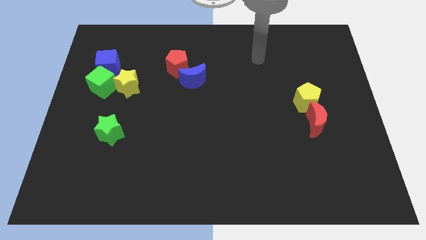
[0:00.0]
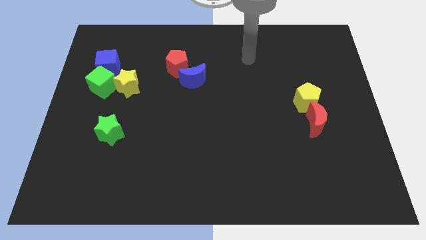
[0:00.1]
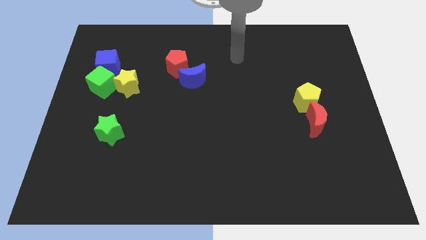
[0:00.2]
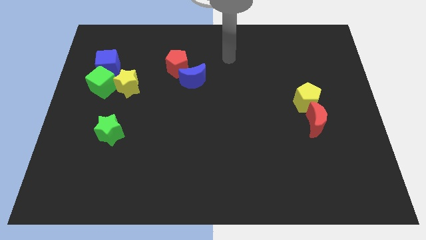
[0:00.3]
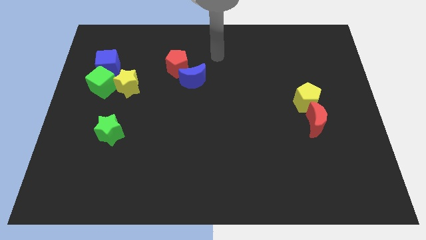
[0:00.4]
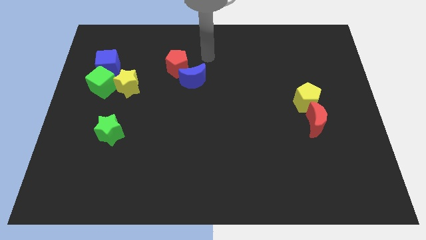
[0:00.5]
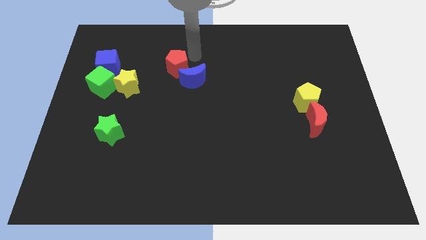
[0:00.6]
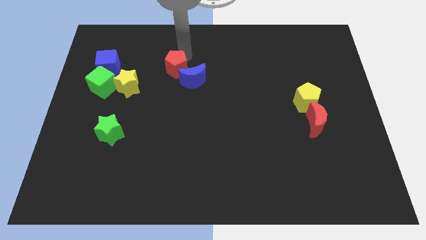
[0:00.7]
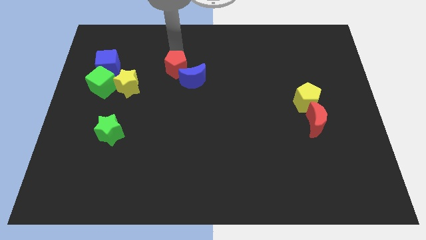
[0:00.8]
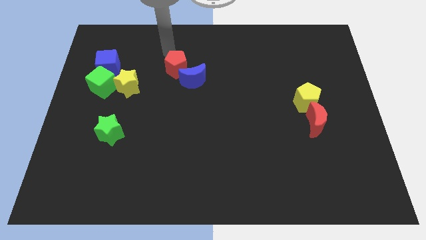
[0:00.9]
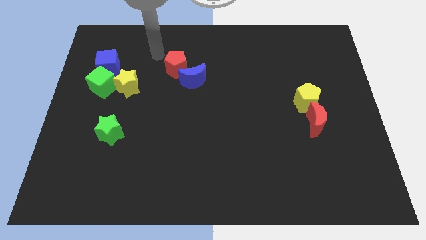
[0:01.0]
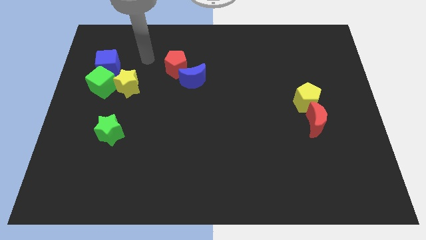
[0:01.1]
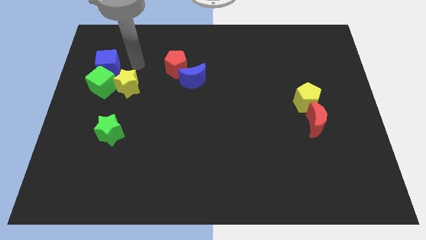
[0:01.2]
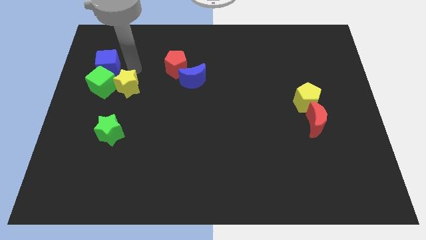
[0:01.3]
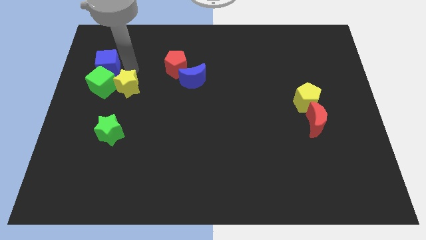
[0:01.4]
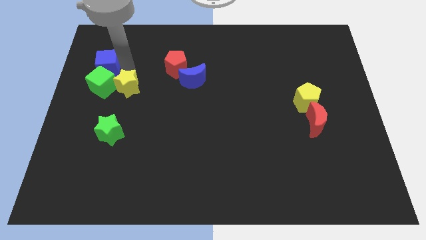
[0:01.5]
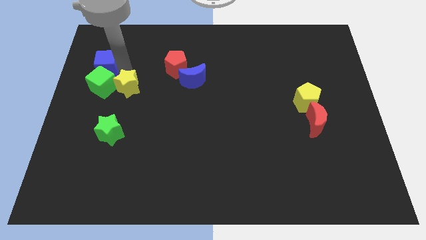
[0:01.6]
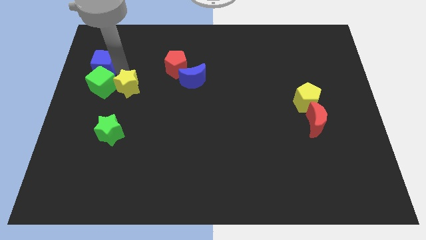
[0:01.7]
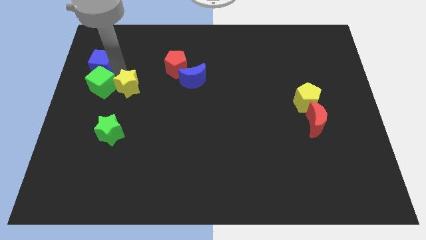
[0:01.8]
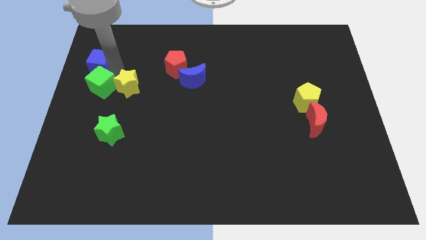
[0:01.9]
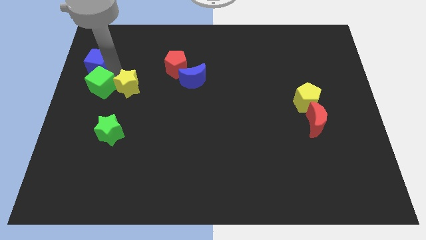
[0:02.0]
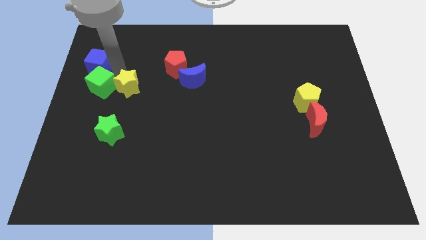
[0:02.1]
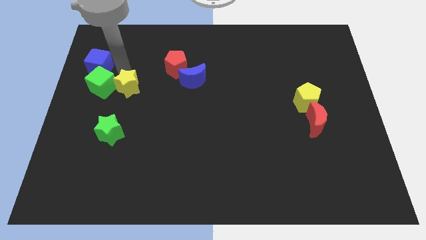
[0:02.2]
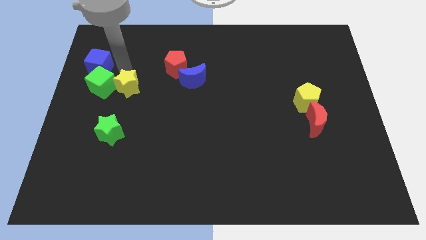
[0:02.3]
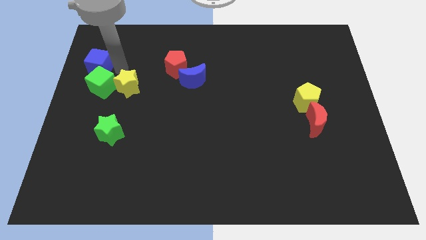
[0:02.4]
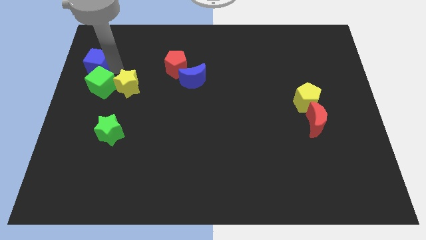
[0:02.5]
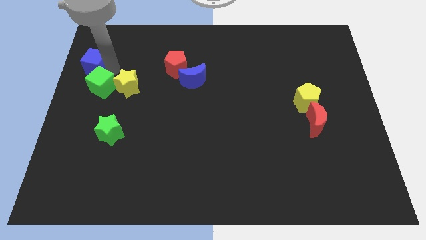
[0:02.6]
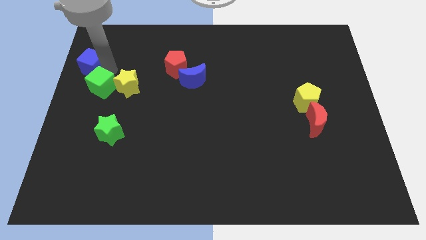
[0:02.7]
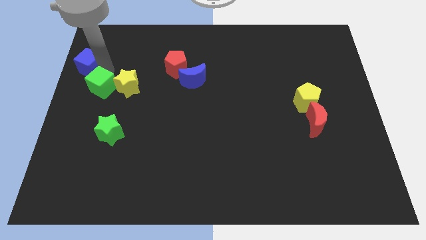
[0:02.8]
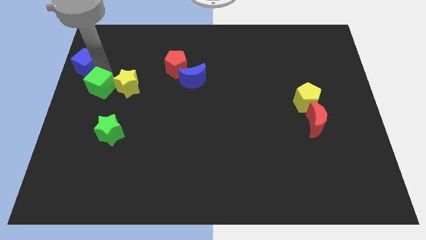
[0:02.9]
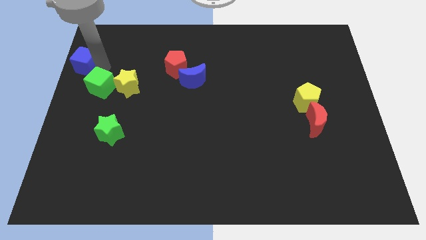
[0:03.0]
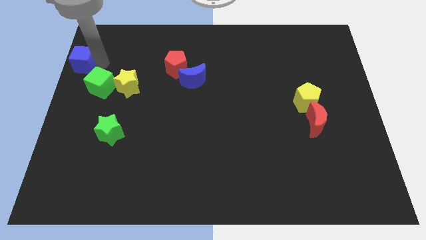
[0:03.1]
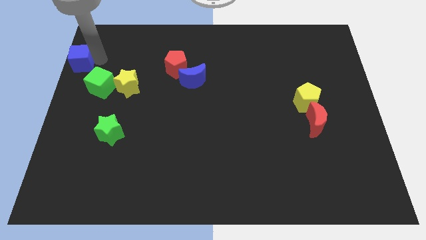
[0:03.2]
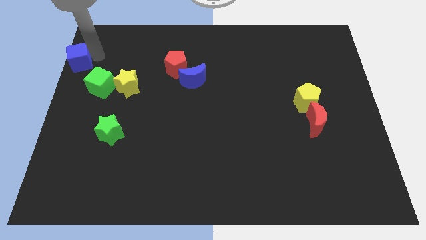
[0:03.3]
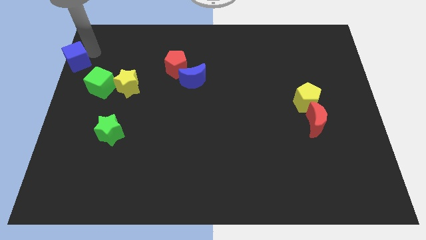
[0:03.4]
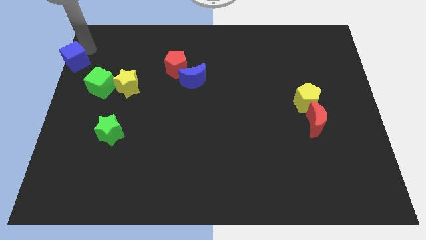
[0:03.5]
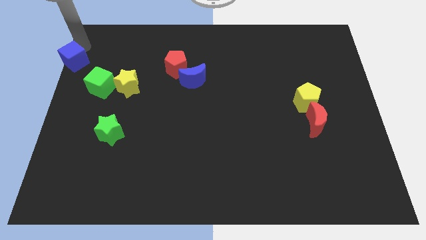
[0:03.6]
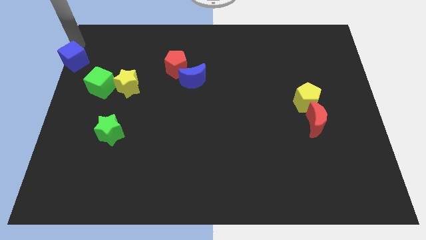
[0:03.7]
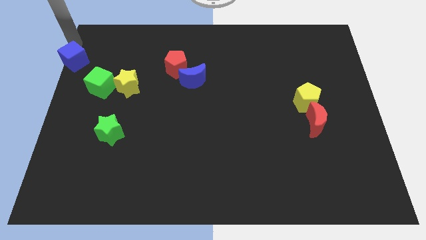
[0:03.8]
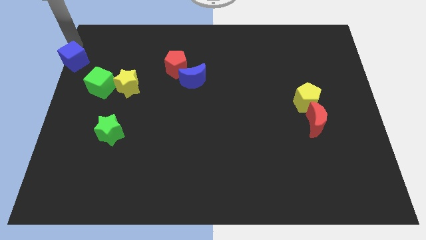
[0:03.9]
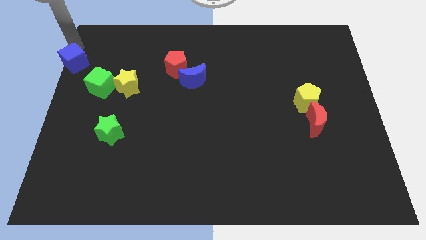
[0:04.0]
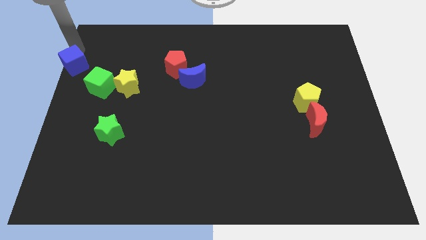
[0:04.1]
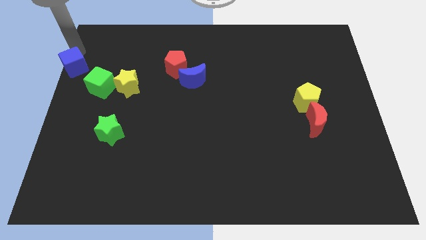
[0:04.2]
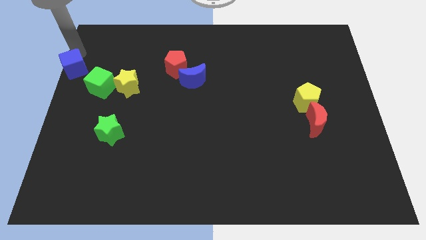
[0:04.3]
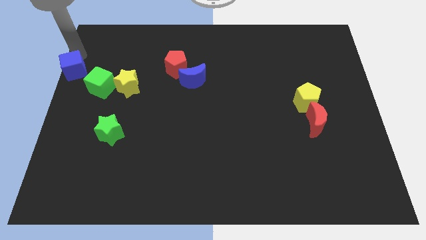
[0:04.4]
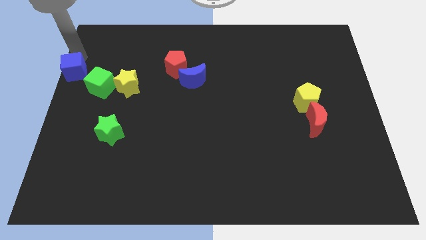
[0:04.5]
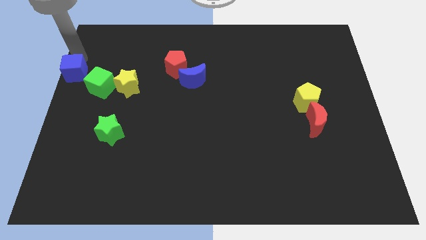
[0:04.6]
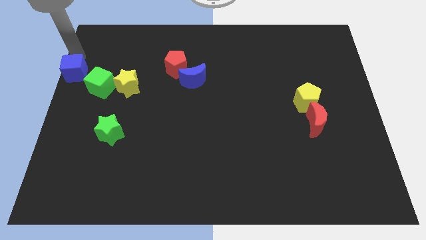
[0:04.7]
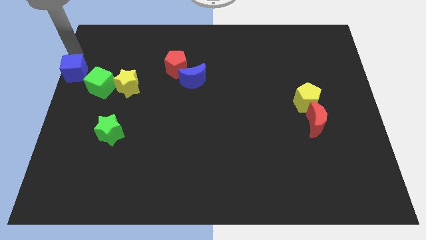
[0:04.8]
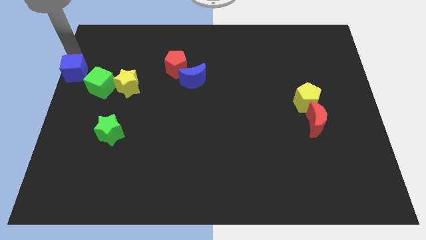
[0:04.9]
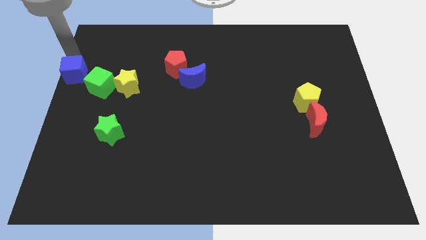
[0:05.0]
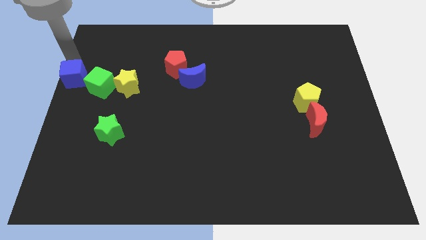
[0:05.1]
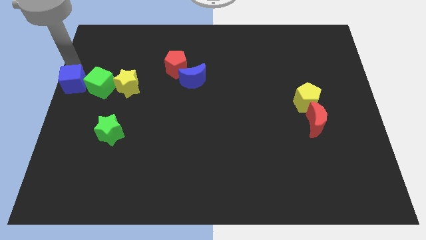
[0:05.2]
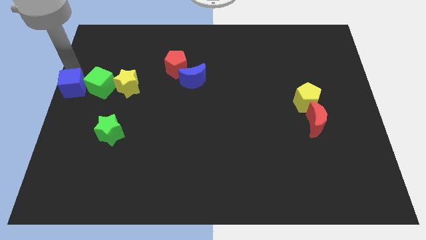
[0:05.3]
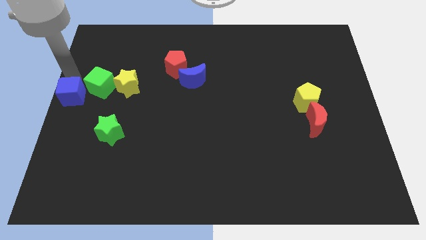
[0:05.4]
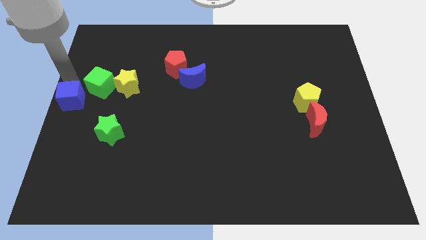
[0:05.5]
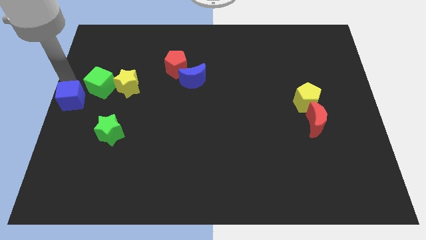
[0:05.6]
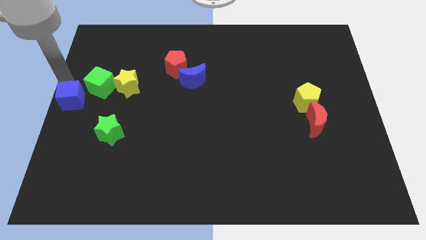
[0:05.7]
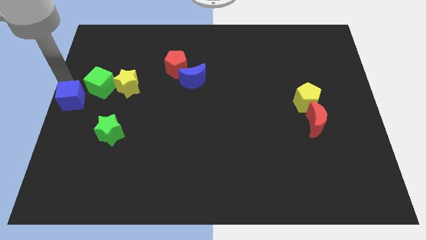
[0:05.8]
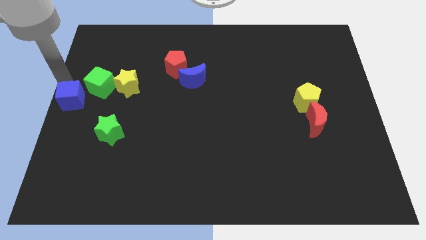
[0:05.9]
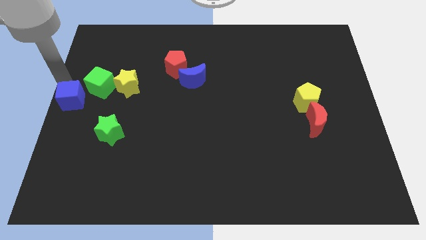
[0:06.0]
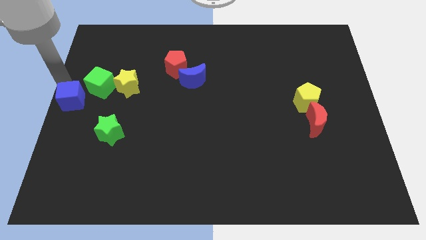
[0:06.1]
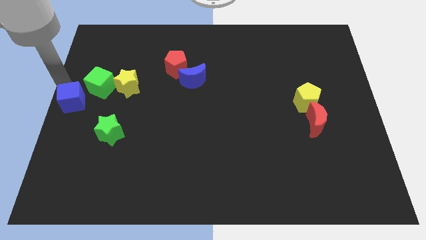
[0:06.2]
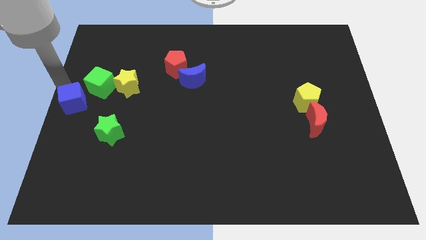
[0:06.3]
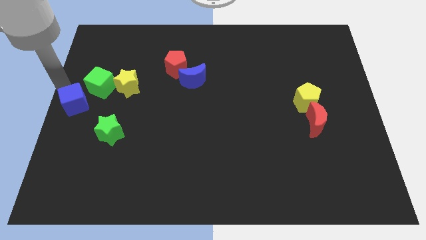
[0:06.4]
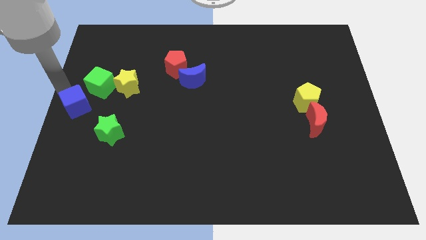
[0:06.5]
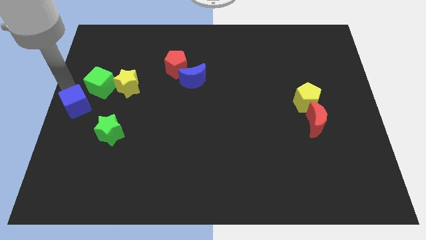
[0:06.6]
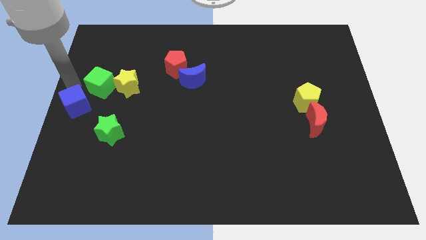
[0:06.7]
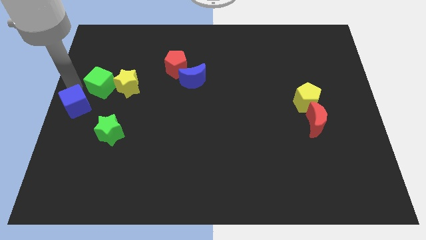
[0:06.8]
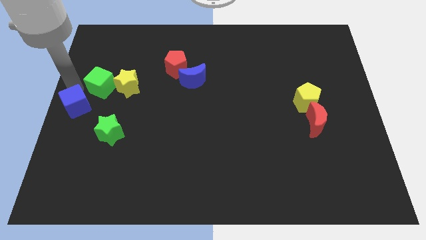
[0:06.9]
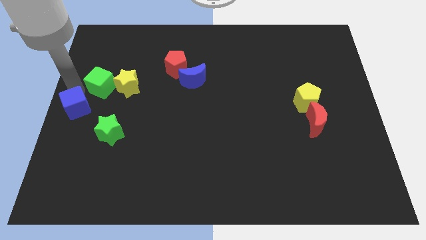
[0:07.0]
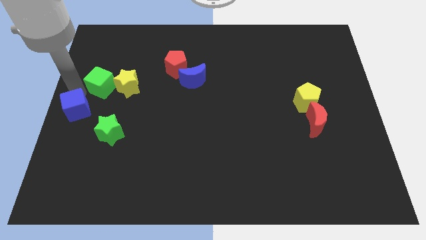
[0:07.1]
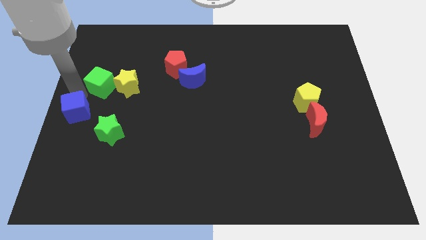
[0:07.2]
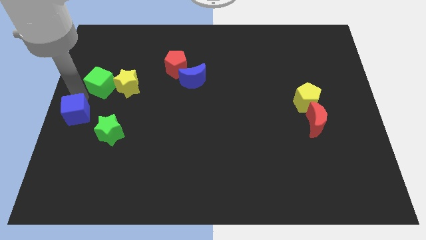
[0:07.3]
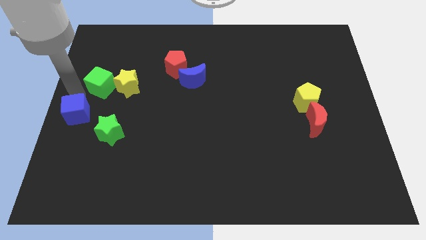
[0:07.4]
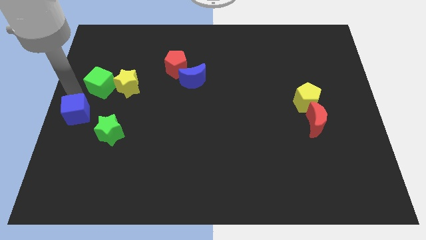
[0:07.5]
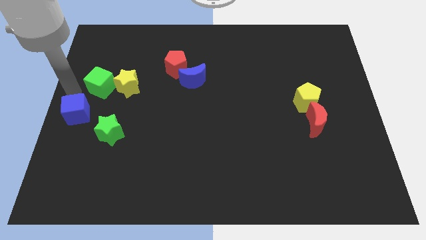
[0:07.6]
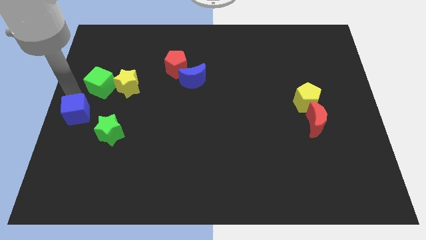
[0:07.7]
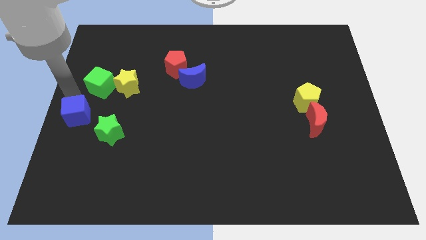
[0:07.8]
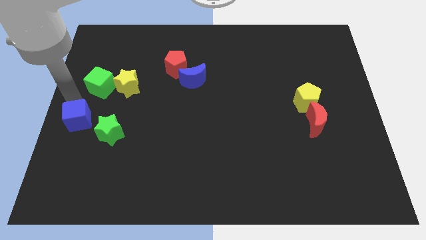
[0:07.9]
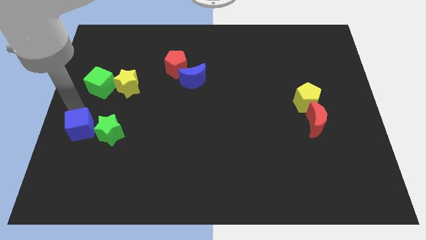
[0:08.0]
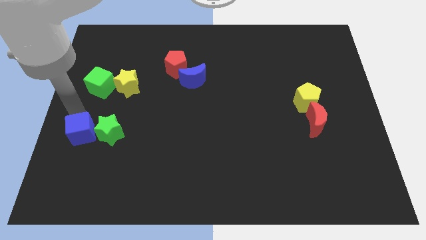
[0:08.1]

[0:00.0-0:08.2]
slide the blue cube down
